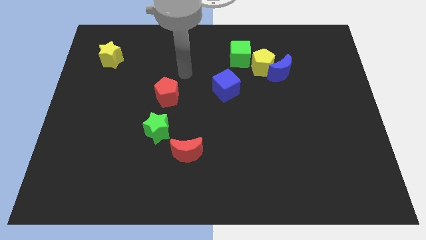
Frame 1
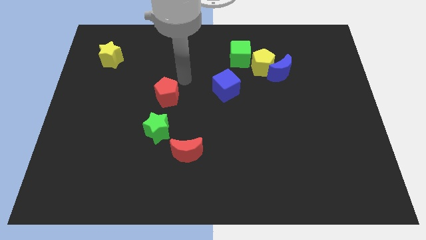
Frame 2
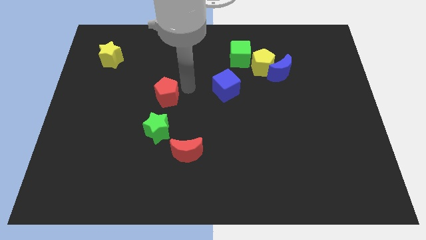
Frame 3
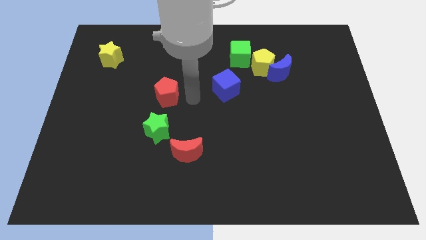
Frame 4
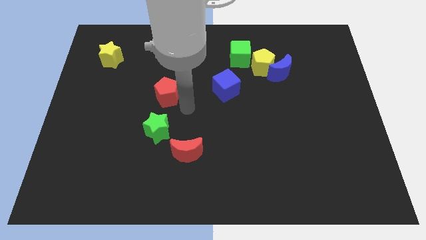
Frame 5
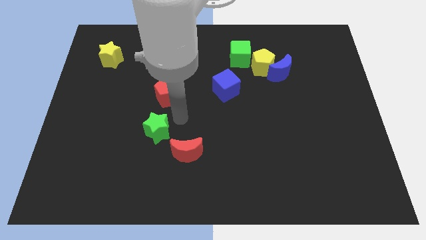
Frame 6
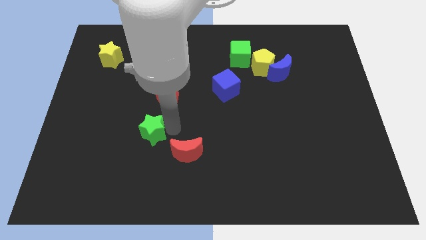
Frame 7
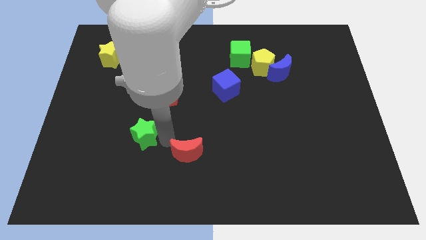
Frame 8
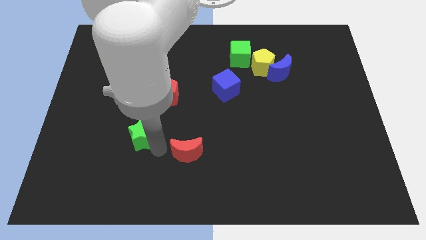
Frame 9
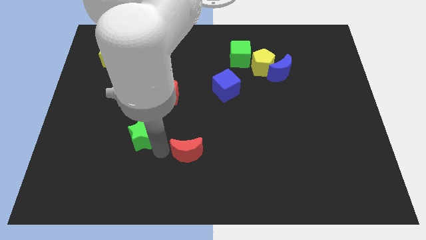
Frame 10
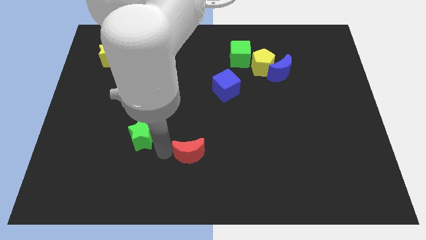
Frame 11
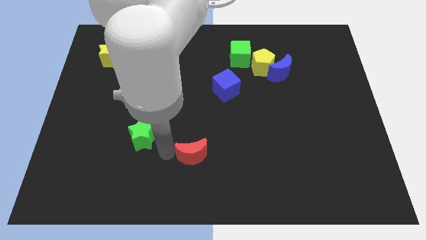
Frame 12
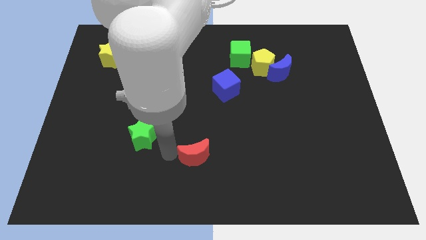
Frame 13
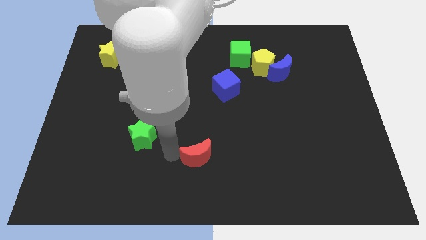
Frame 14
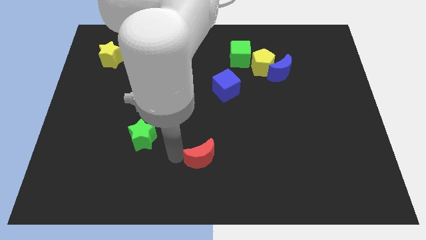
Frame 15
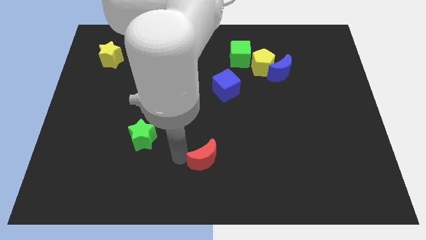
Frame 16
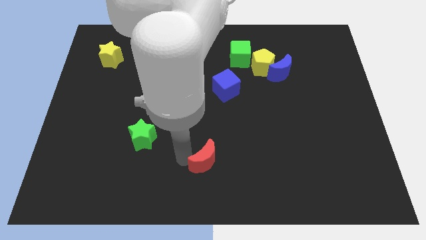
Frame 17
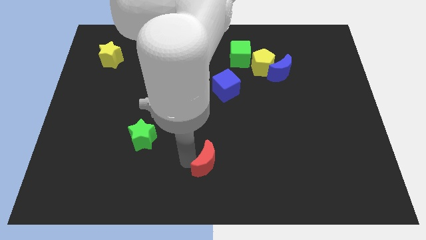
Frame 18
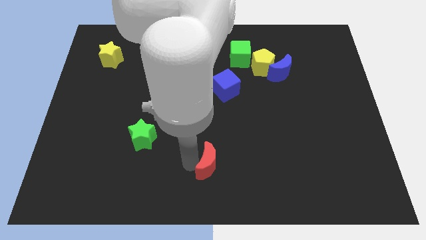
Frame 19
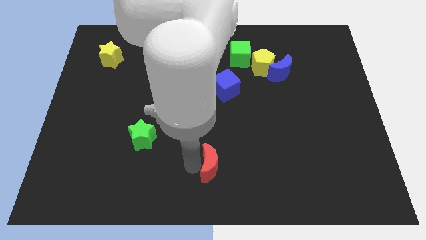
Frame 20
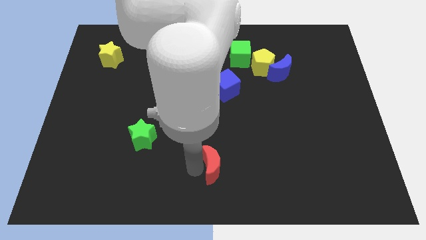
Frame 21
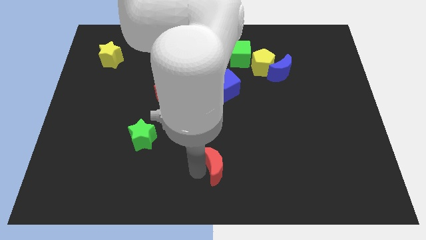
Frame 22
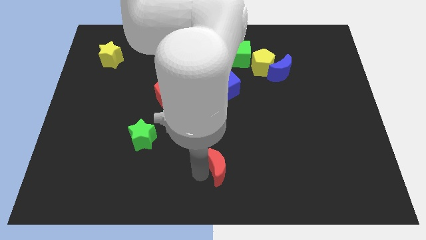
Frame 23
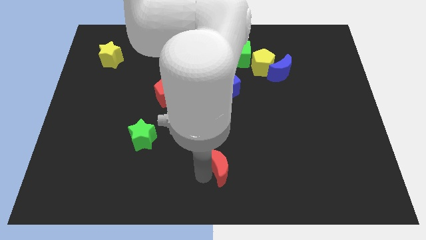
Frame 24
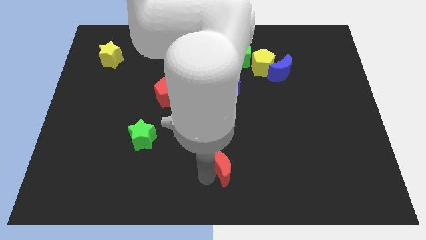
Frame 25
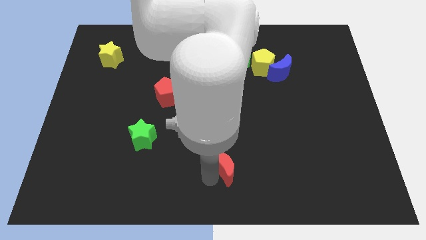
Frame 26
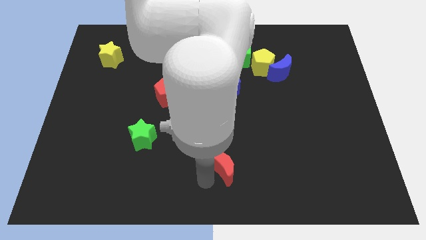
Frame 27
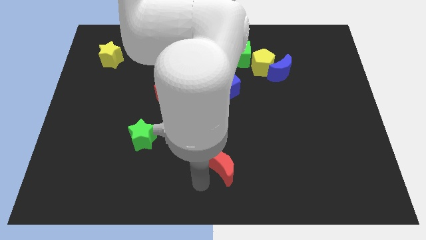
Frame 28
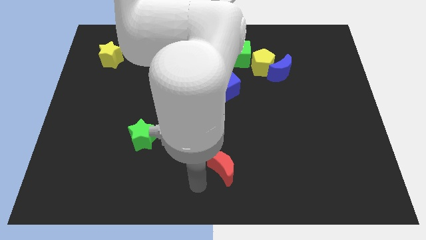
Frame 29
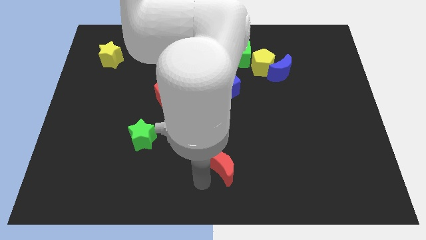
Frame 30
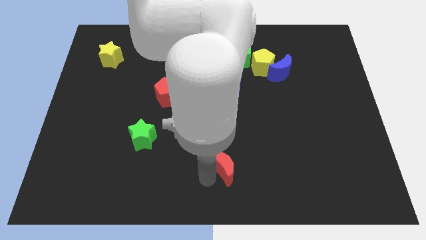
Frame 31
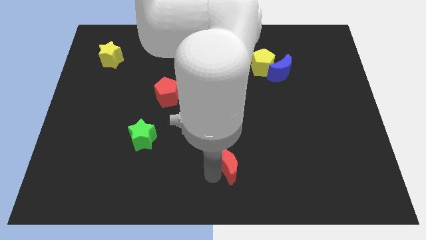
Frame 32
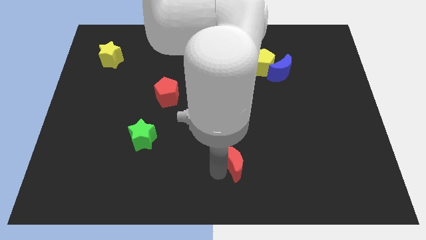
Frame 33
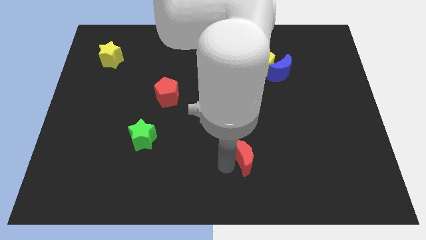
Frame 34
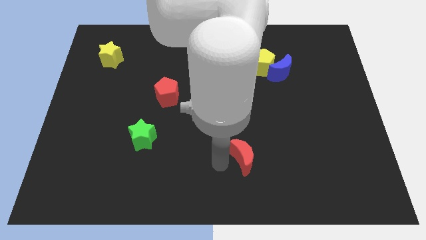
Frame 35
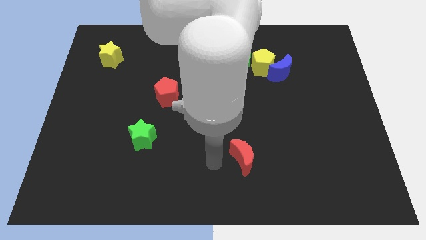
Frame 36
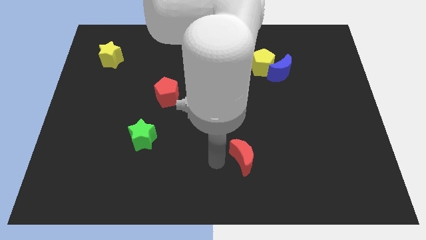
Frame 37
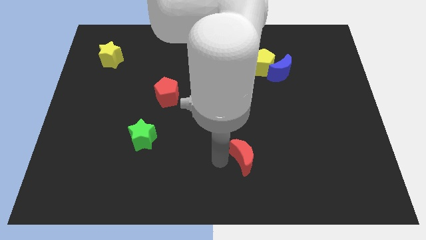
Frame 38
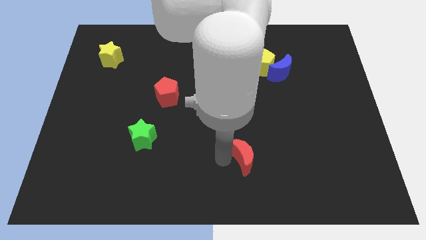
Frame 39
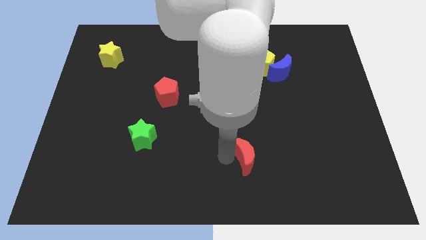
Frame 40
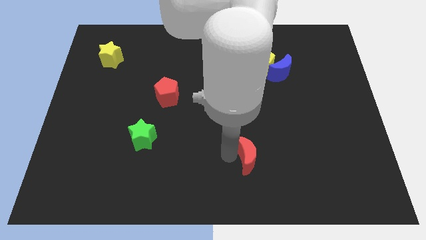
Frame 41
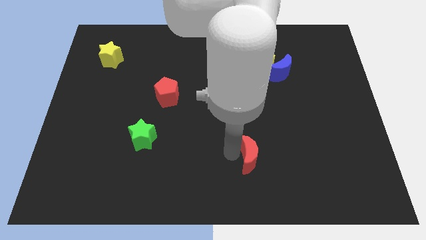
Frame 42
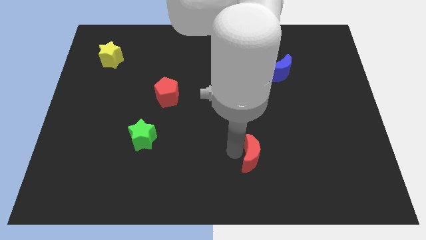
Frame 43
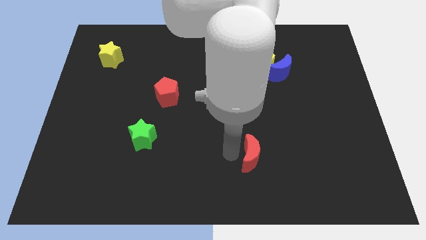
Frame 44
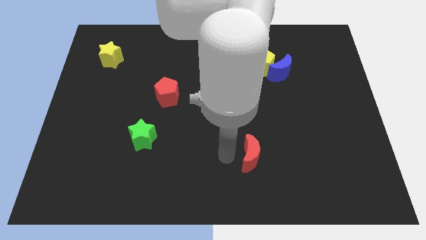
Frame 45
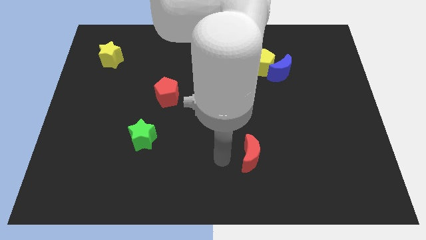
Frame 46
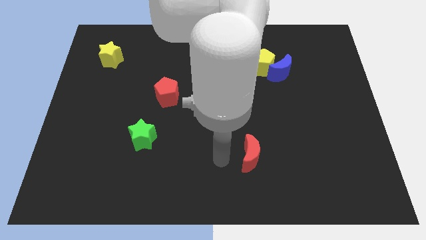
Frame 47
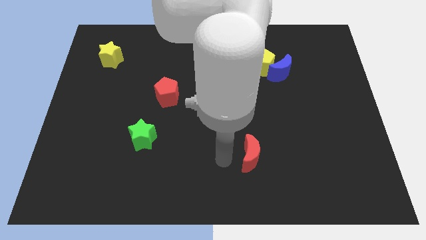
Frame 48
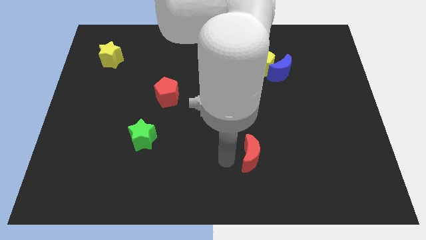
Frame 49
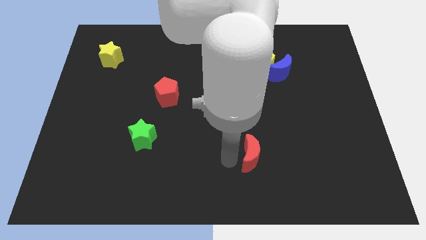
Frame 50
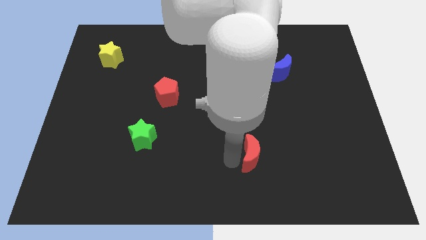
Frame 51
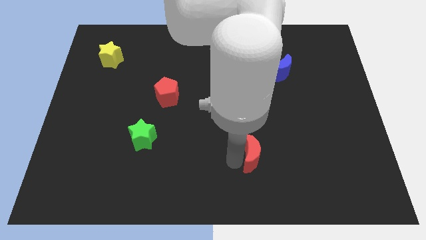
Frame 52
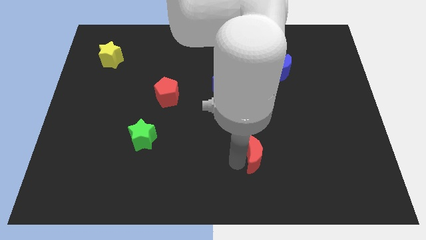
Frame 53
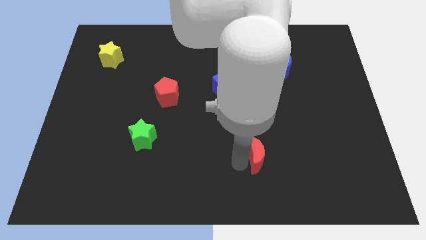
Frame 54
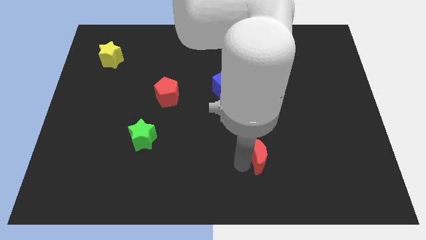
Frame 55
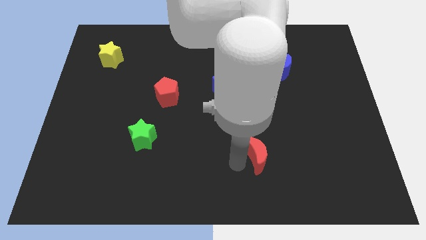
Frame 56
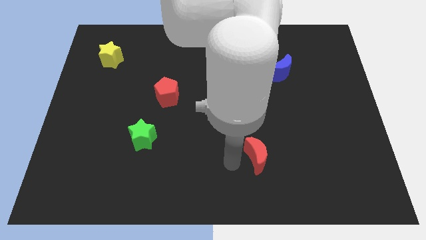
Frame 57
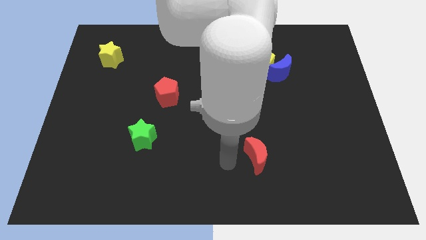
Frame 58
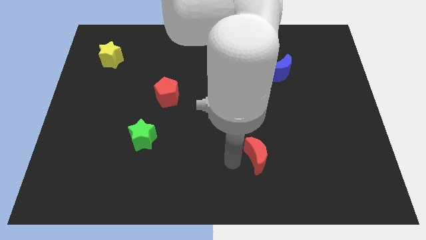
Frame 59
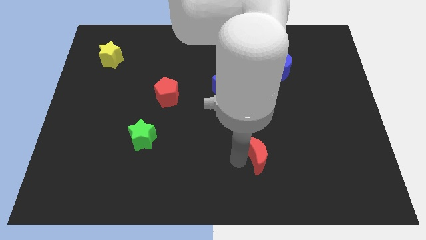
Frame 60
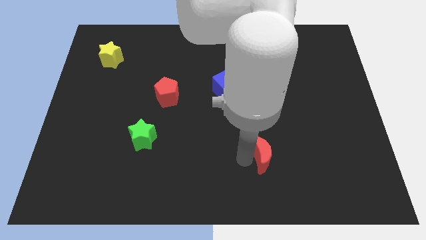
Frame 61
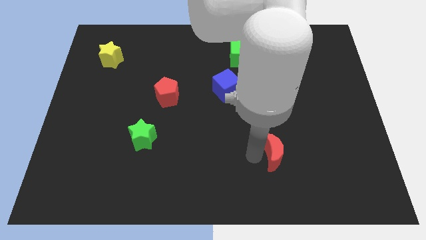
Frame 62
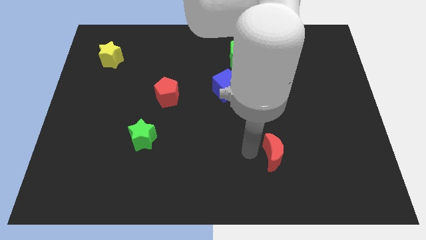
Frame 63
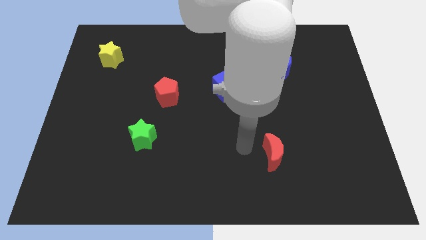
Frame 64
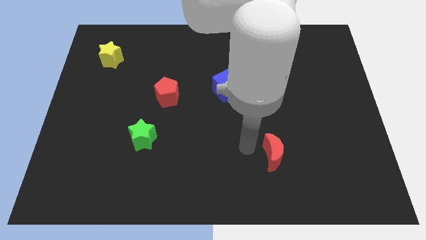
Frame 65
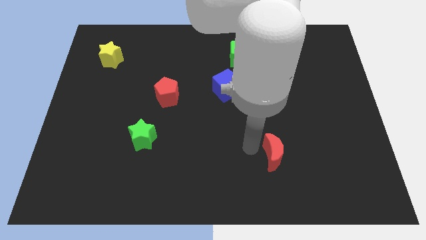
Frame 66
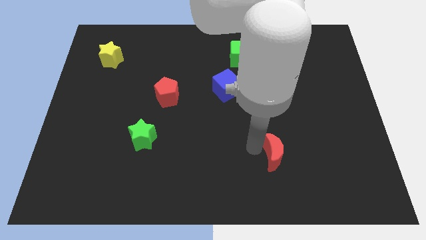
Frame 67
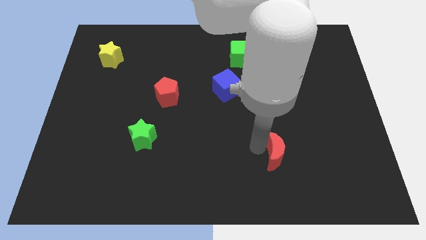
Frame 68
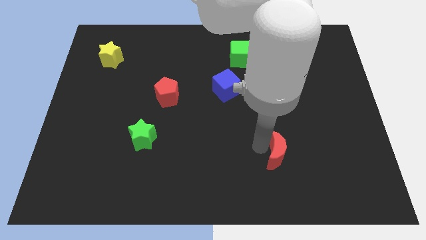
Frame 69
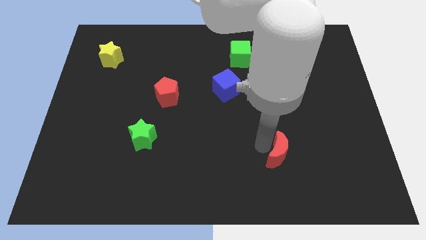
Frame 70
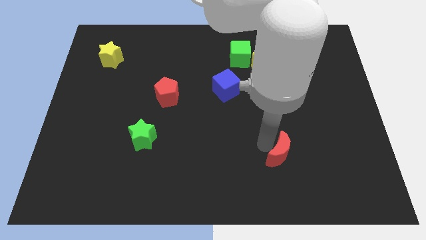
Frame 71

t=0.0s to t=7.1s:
slide the red moon right

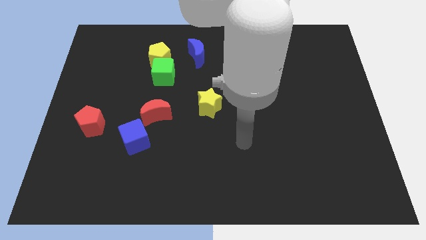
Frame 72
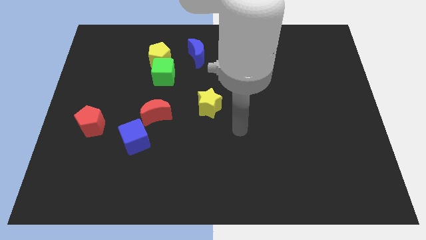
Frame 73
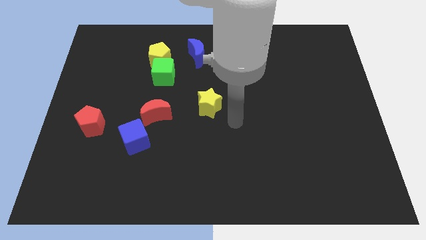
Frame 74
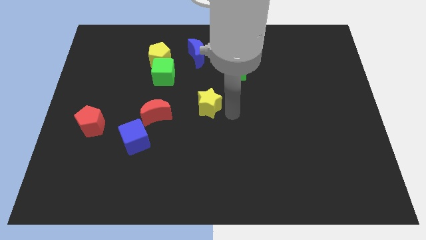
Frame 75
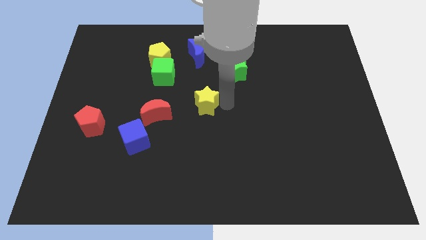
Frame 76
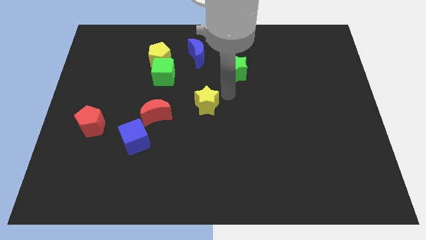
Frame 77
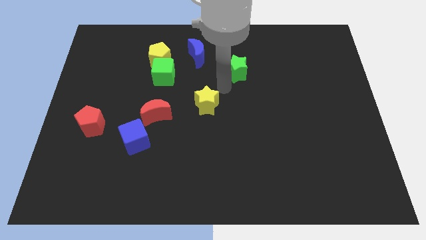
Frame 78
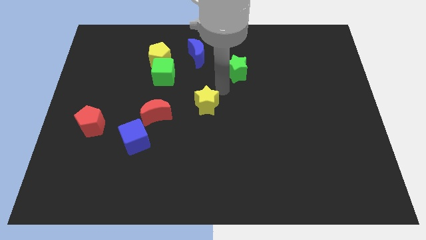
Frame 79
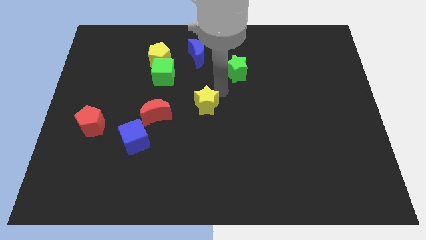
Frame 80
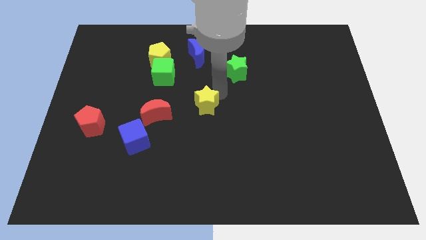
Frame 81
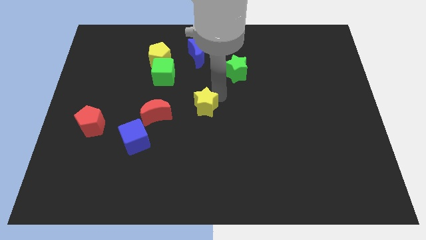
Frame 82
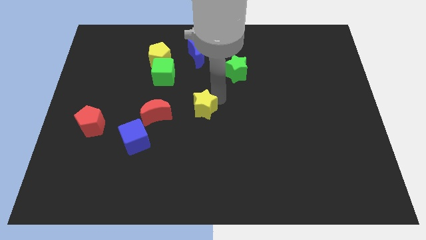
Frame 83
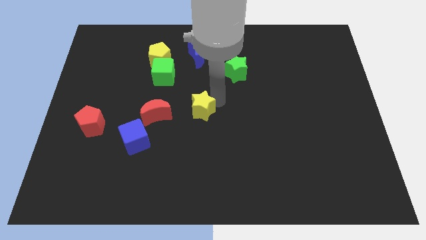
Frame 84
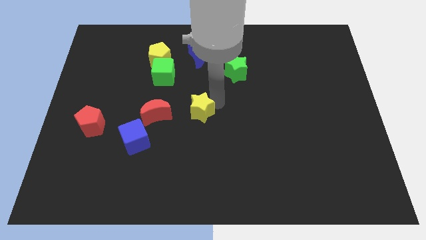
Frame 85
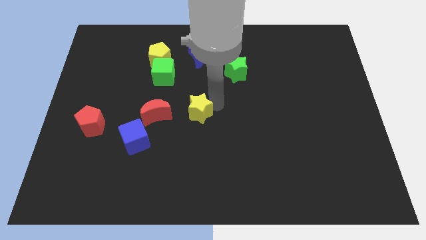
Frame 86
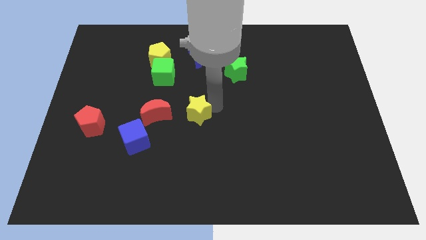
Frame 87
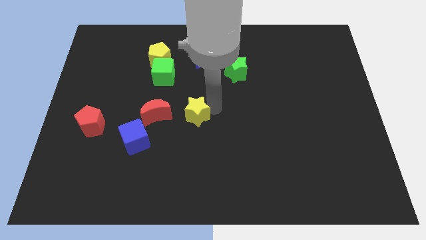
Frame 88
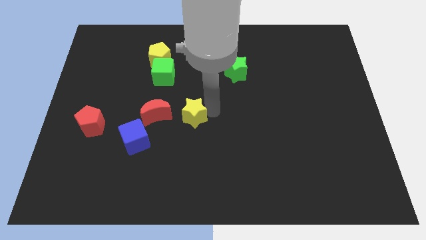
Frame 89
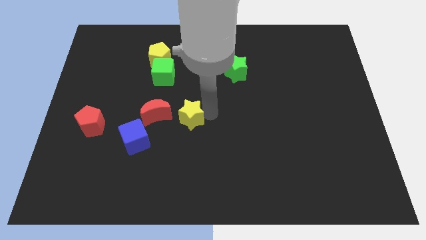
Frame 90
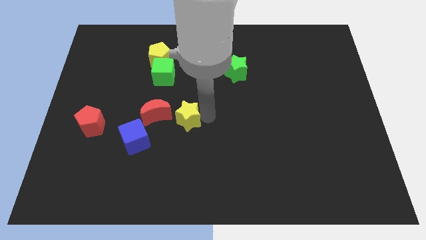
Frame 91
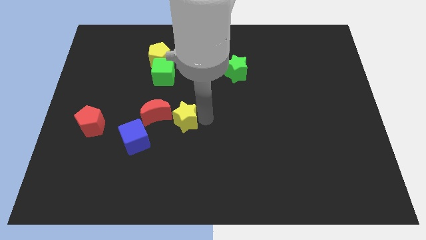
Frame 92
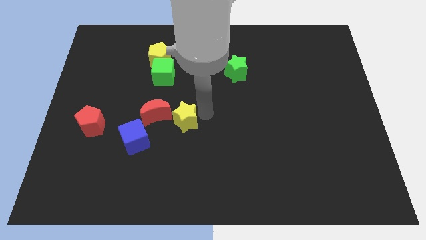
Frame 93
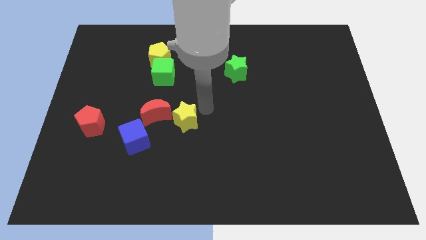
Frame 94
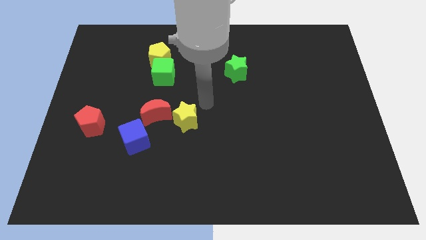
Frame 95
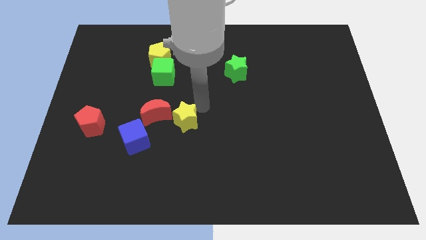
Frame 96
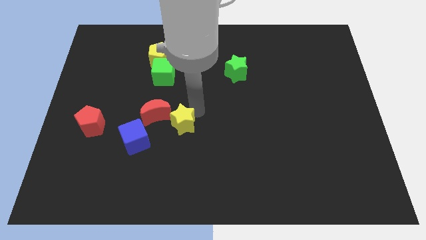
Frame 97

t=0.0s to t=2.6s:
slightly slide the yellow star down and then left
